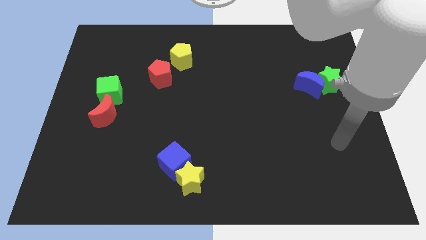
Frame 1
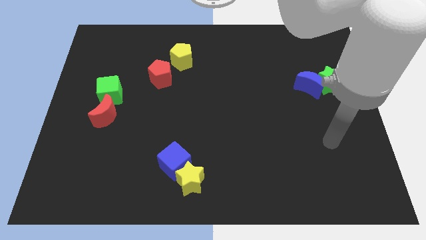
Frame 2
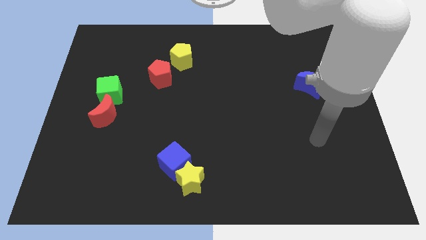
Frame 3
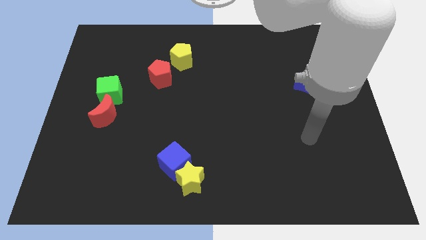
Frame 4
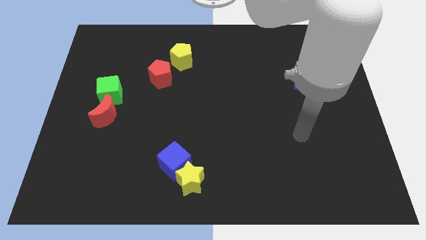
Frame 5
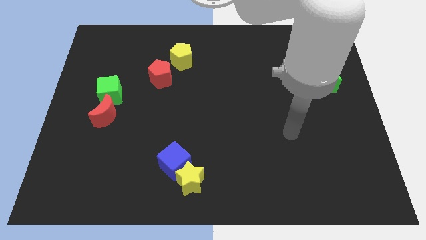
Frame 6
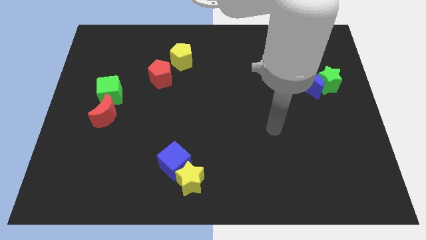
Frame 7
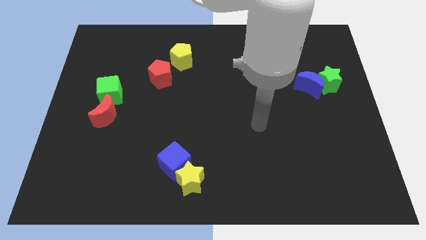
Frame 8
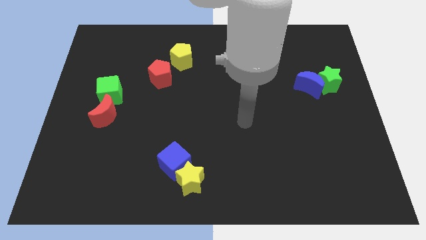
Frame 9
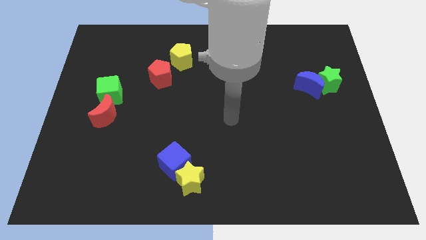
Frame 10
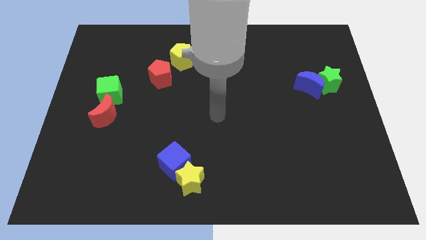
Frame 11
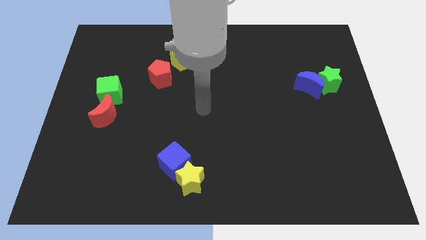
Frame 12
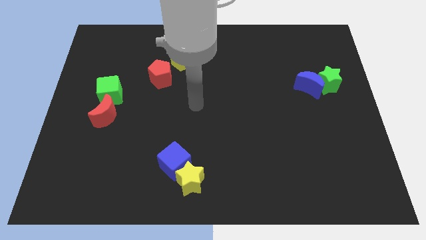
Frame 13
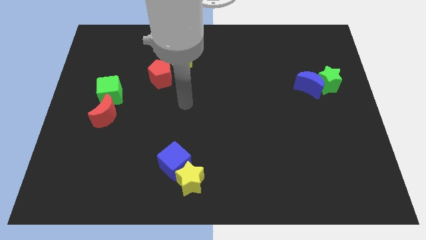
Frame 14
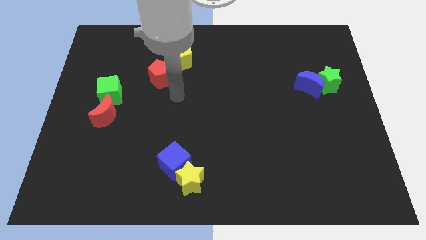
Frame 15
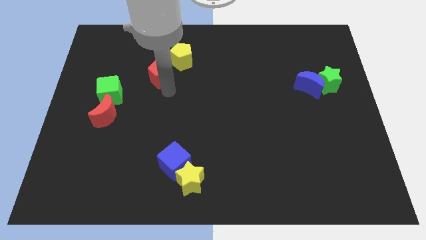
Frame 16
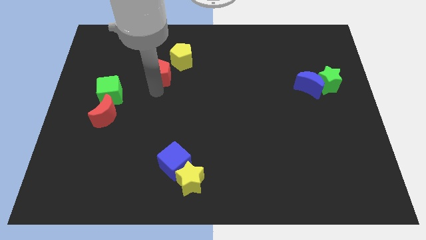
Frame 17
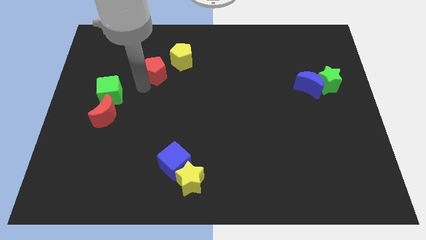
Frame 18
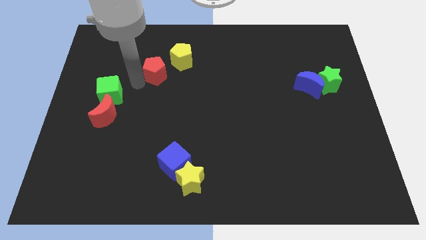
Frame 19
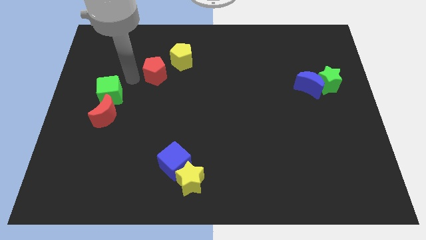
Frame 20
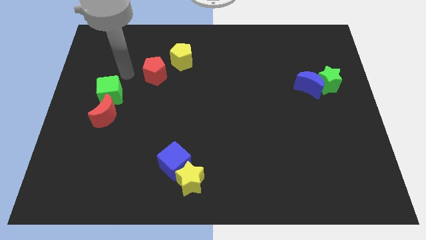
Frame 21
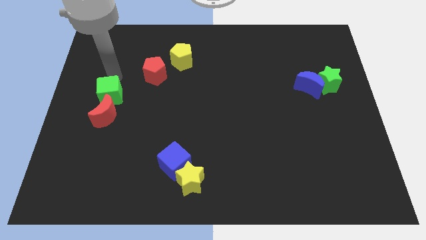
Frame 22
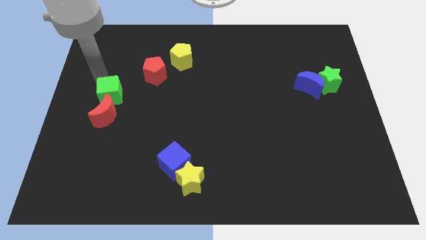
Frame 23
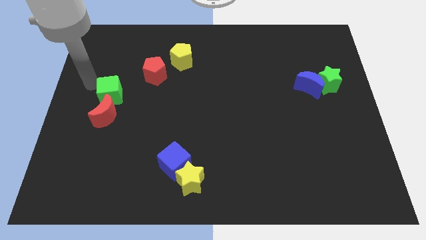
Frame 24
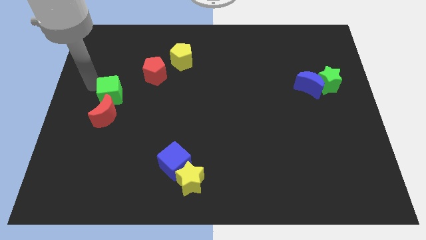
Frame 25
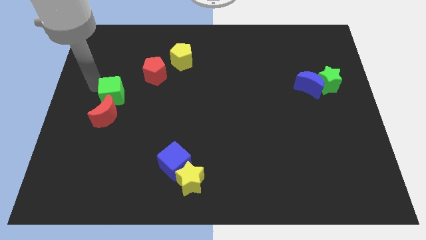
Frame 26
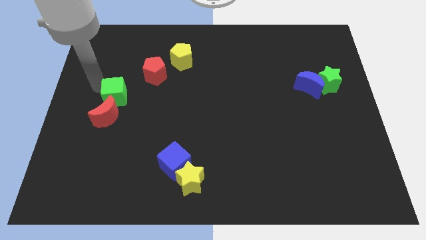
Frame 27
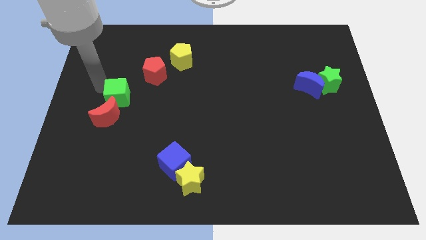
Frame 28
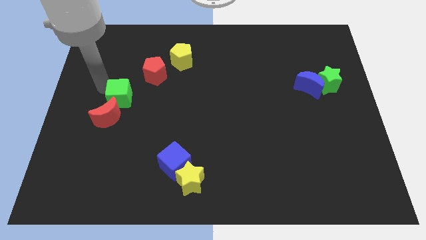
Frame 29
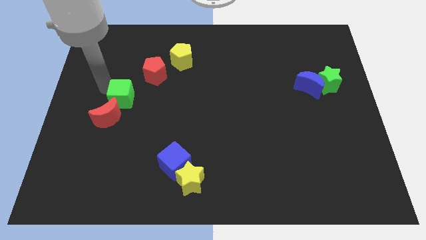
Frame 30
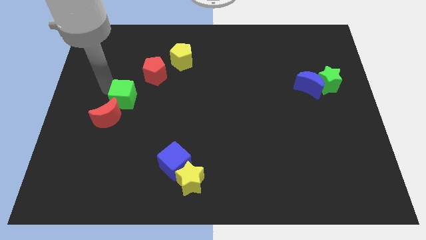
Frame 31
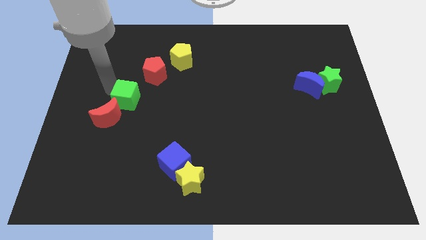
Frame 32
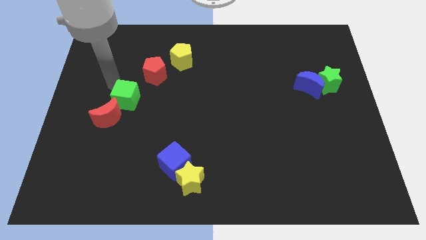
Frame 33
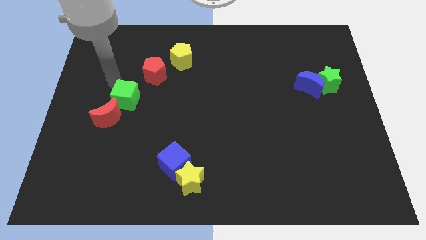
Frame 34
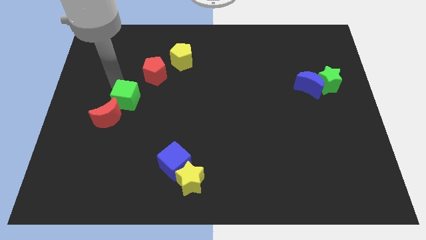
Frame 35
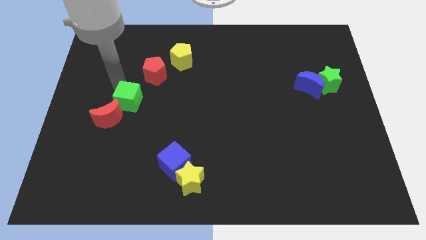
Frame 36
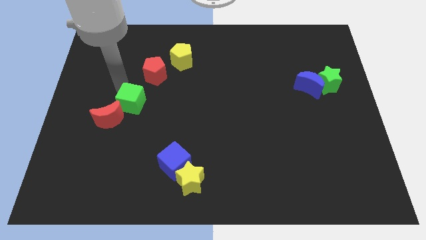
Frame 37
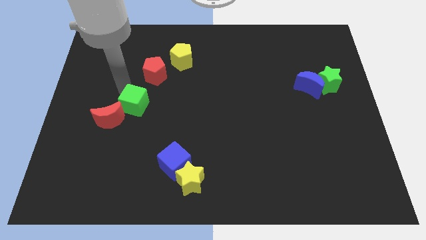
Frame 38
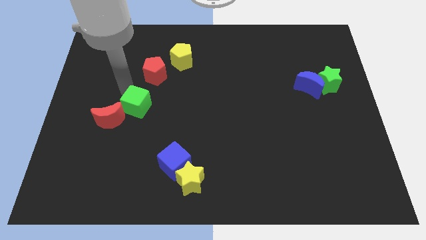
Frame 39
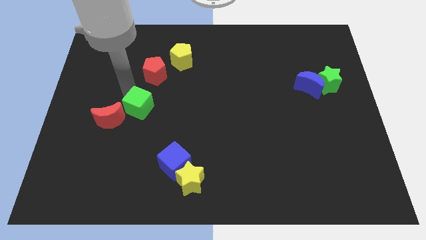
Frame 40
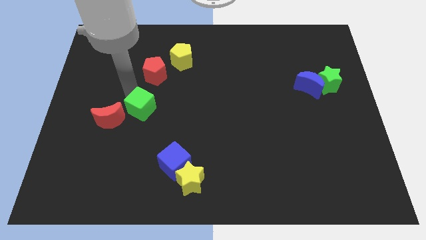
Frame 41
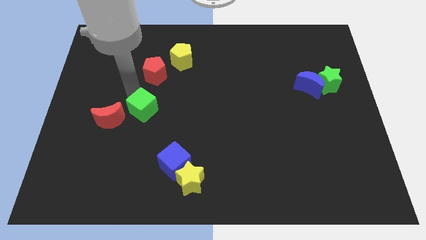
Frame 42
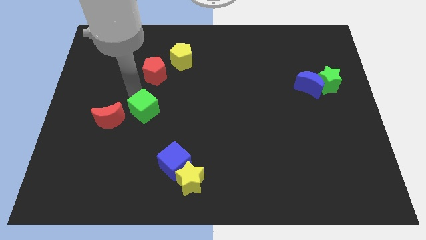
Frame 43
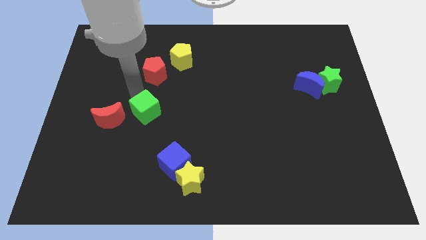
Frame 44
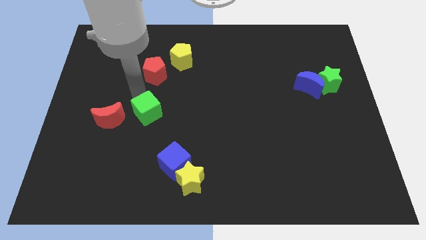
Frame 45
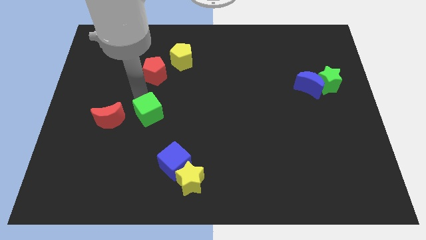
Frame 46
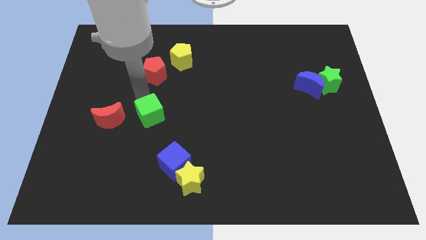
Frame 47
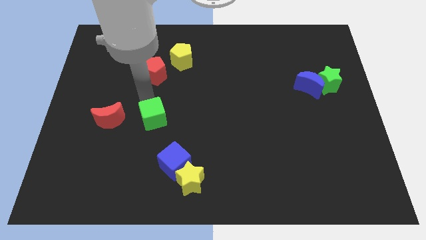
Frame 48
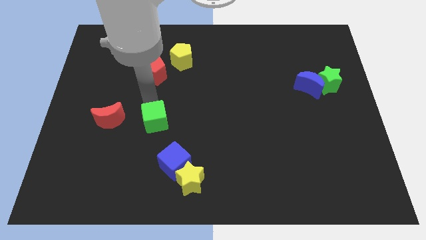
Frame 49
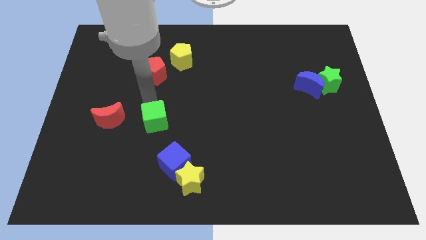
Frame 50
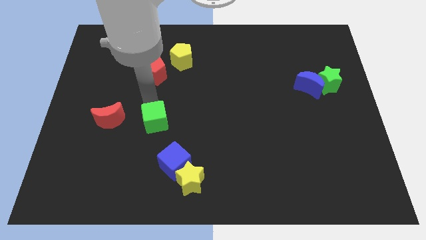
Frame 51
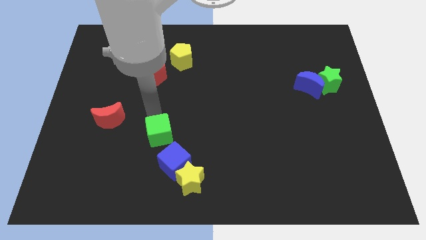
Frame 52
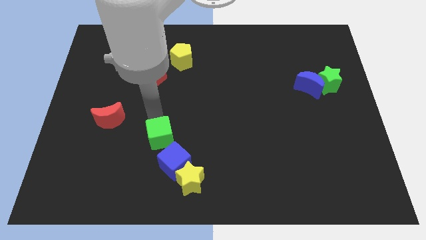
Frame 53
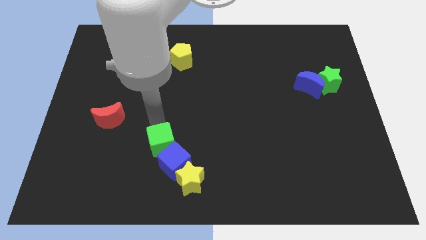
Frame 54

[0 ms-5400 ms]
move the green cube to the top left of the yellow star

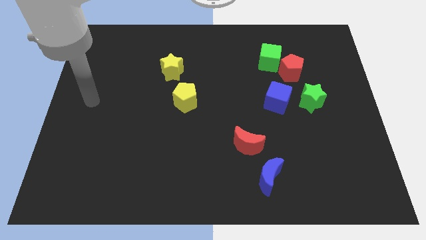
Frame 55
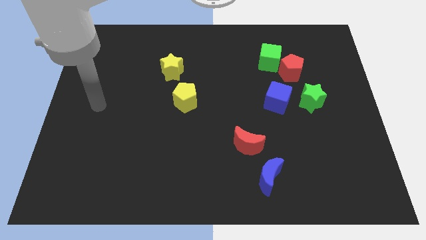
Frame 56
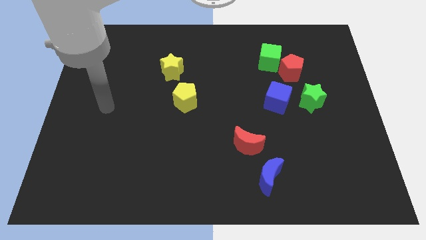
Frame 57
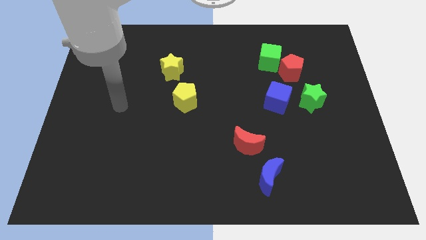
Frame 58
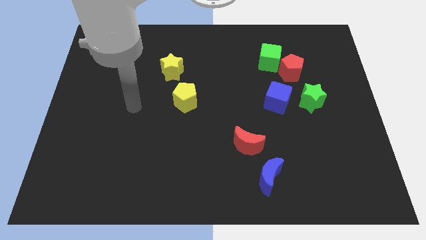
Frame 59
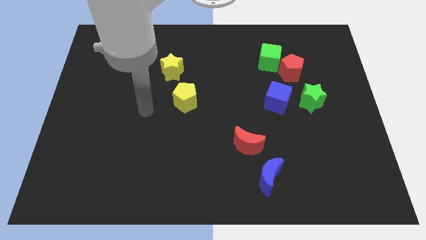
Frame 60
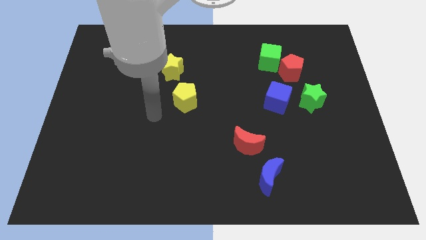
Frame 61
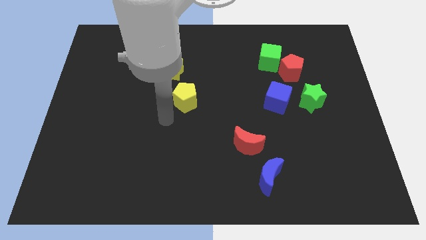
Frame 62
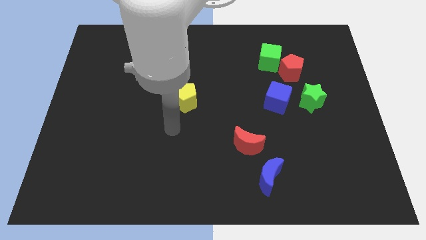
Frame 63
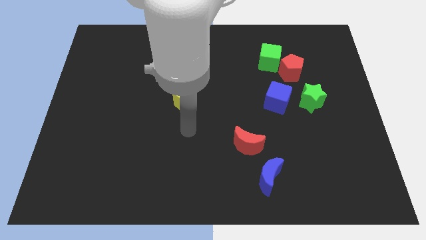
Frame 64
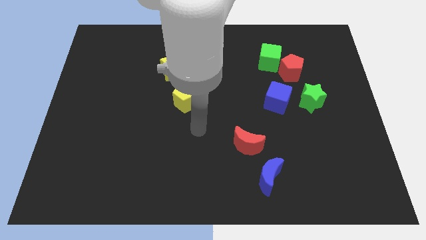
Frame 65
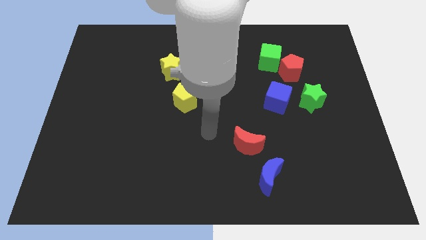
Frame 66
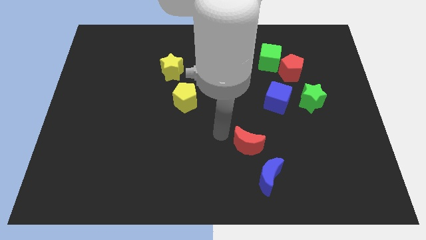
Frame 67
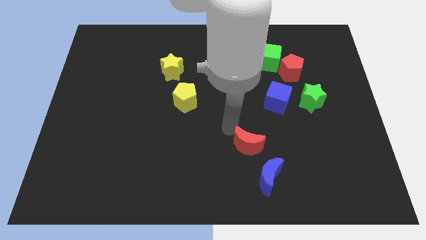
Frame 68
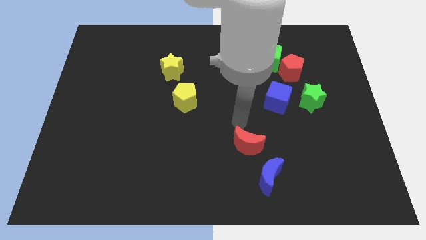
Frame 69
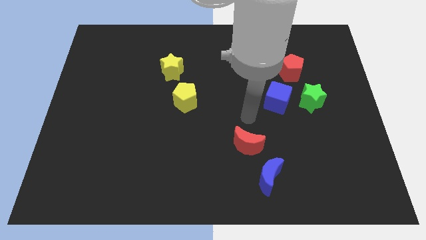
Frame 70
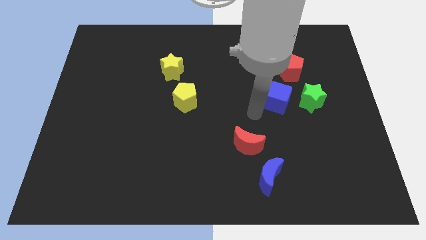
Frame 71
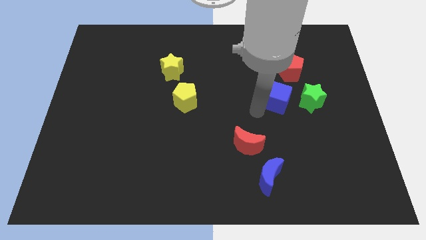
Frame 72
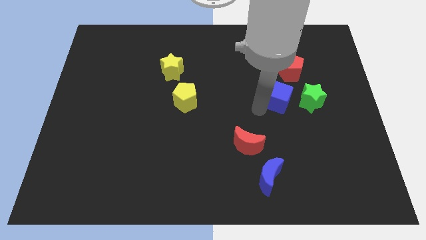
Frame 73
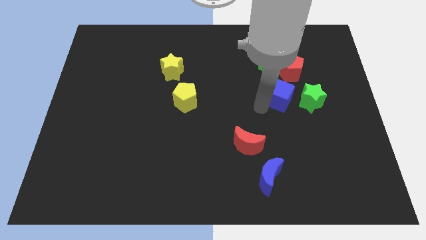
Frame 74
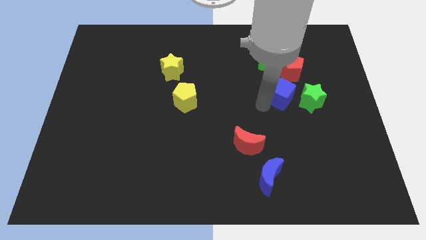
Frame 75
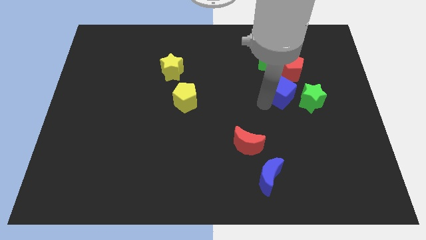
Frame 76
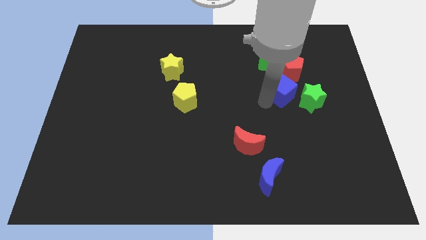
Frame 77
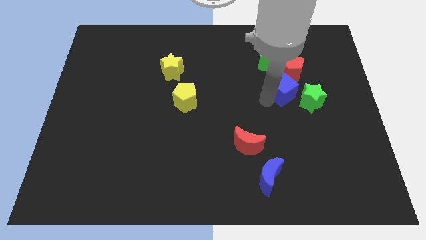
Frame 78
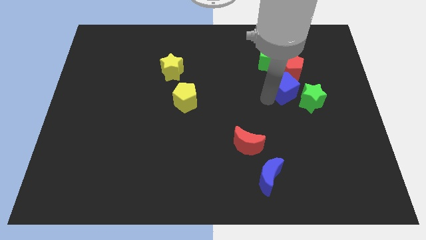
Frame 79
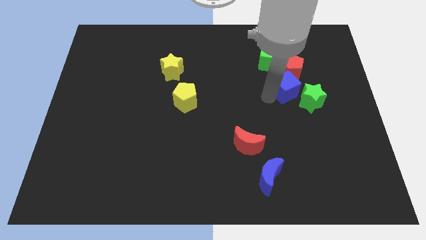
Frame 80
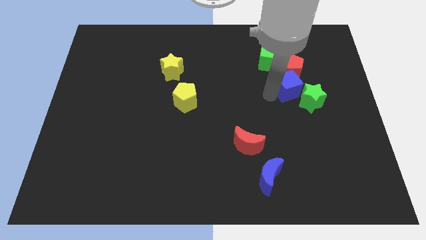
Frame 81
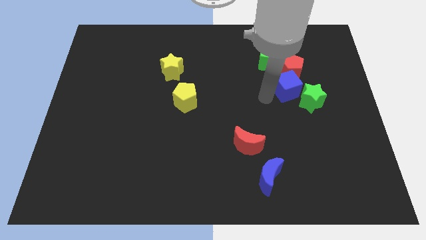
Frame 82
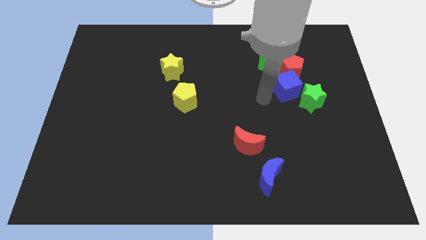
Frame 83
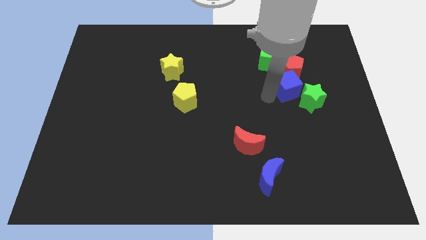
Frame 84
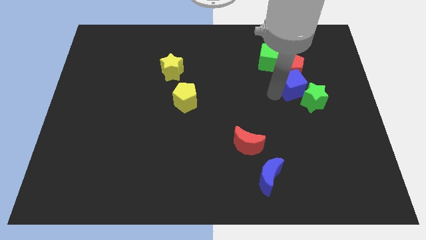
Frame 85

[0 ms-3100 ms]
slide the blue cube to the top of the green star
